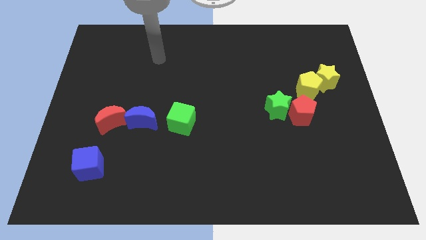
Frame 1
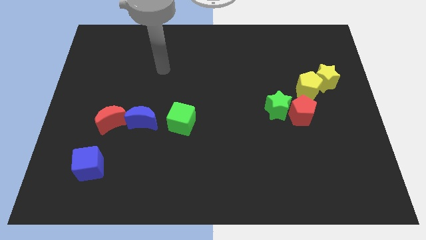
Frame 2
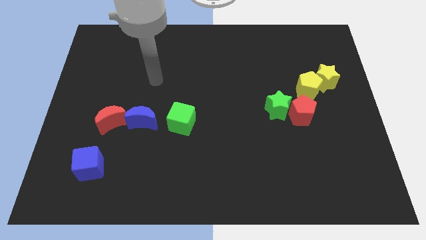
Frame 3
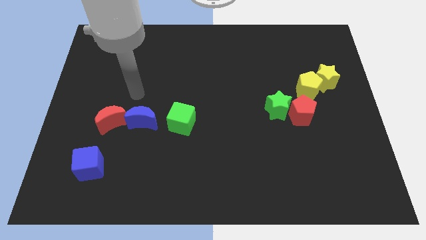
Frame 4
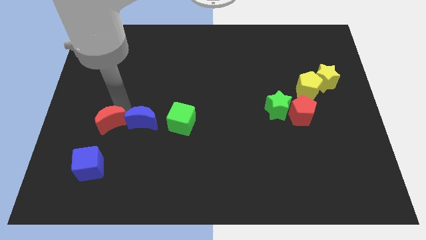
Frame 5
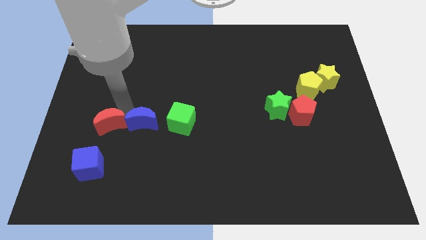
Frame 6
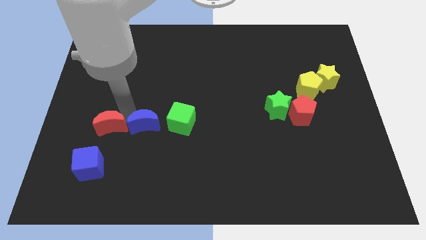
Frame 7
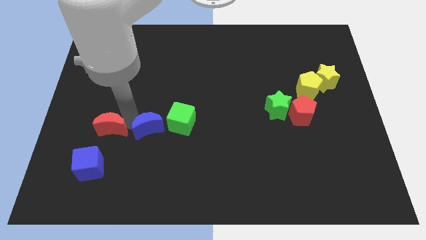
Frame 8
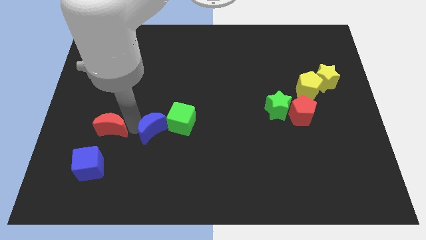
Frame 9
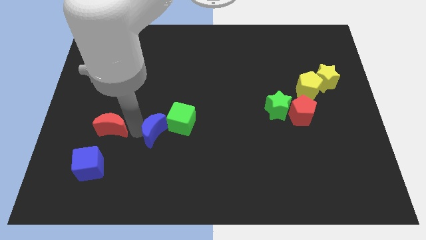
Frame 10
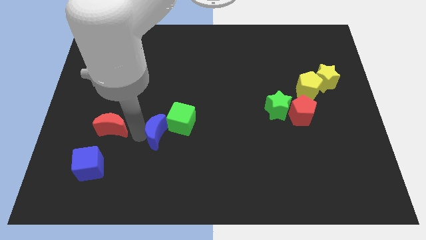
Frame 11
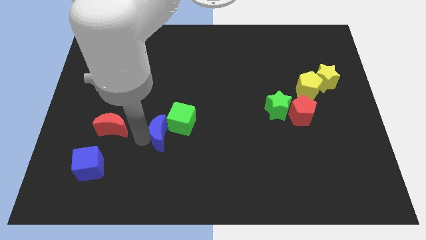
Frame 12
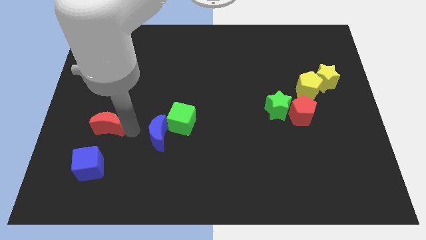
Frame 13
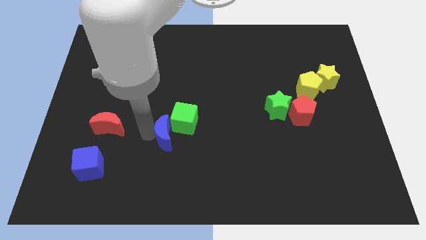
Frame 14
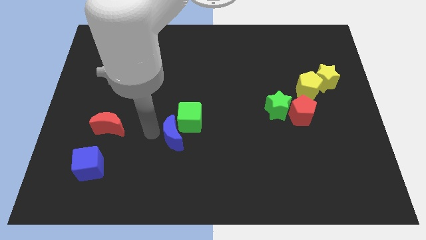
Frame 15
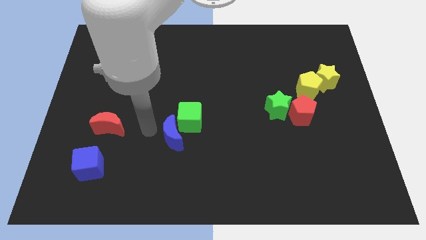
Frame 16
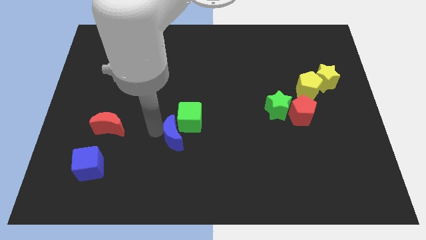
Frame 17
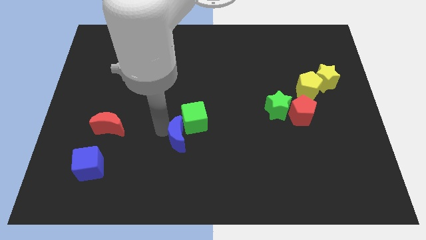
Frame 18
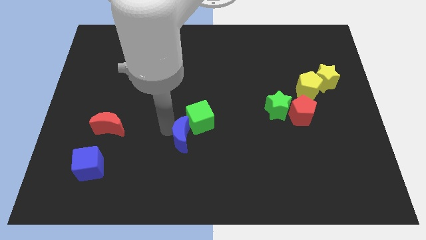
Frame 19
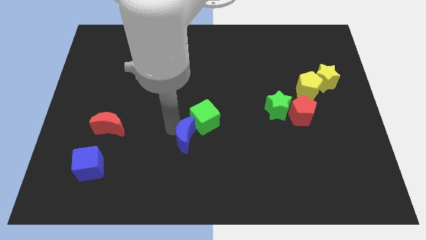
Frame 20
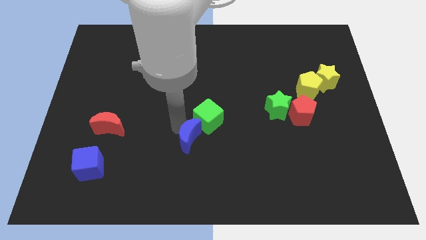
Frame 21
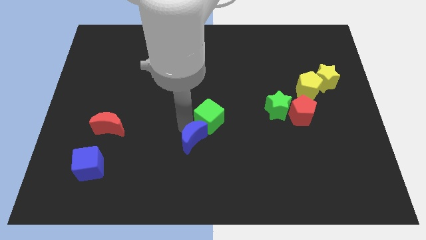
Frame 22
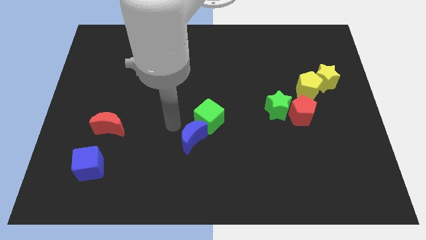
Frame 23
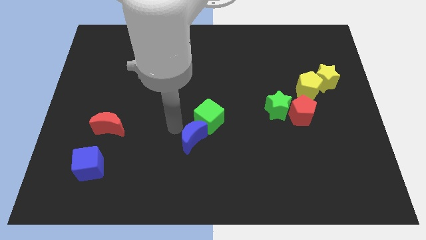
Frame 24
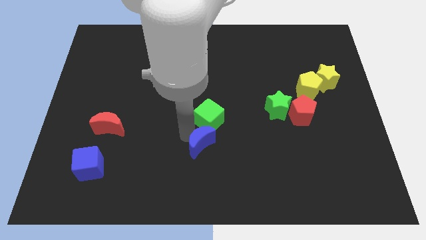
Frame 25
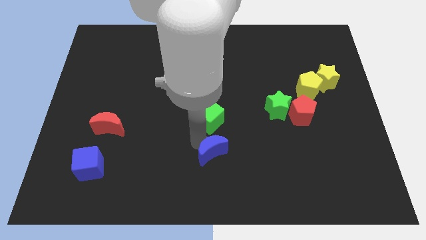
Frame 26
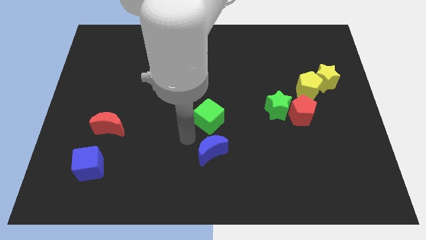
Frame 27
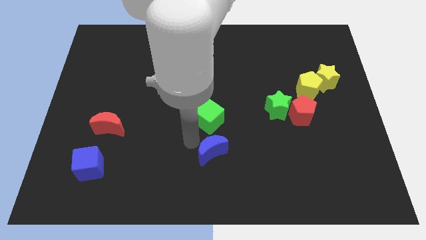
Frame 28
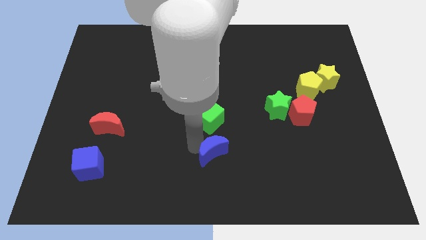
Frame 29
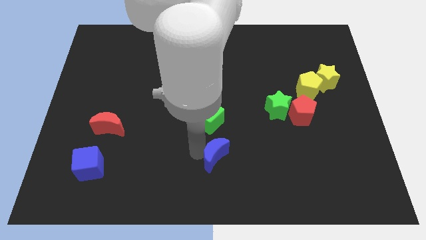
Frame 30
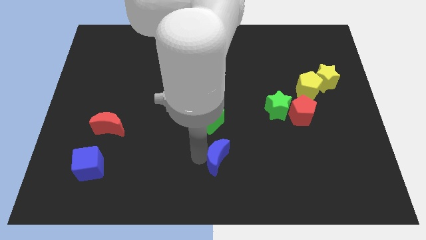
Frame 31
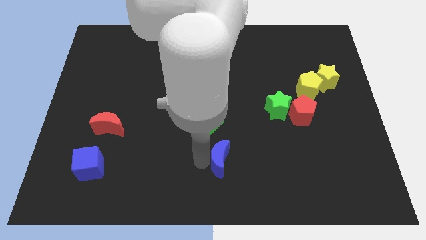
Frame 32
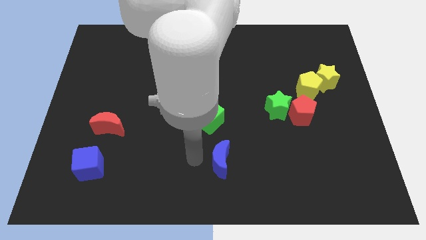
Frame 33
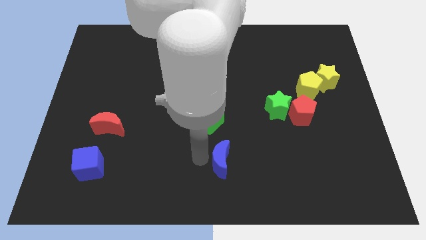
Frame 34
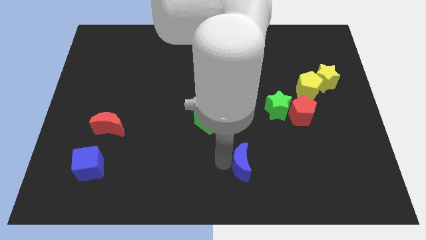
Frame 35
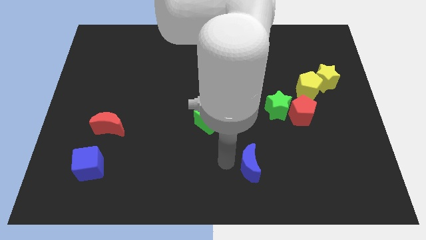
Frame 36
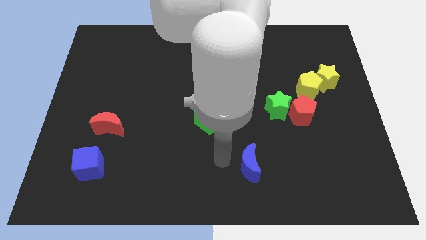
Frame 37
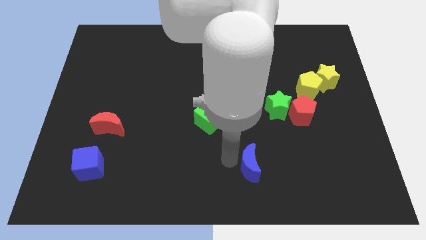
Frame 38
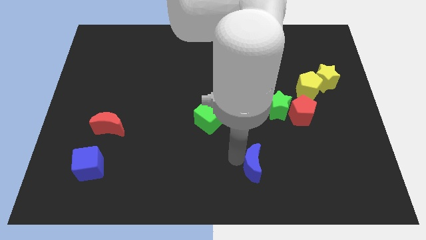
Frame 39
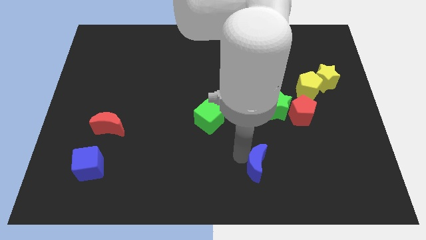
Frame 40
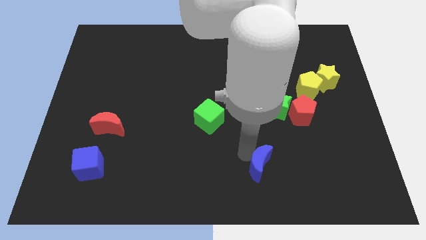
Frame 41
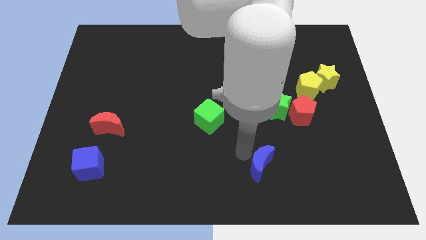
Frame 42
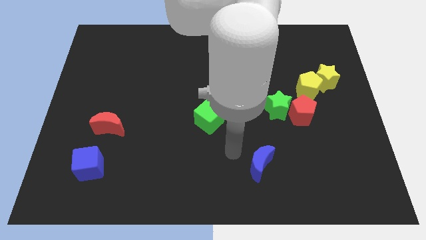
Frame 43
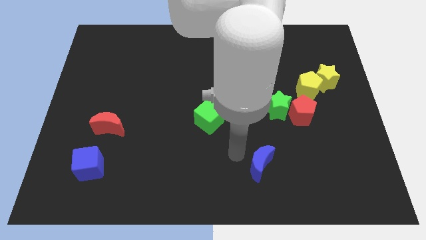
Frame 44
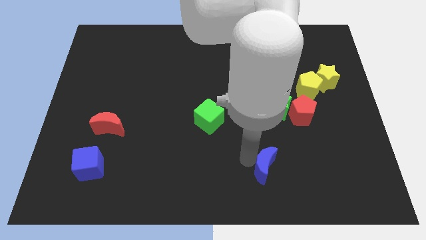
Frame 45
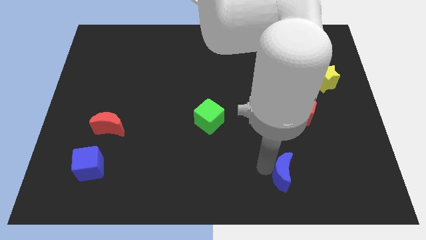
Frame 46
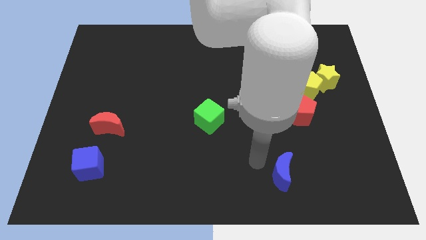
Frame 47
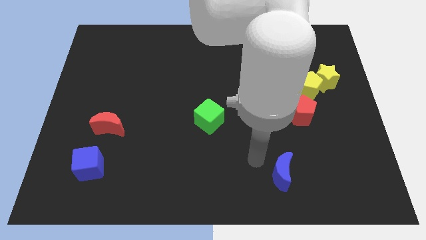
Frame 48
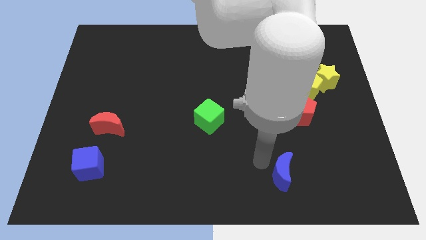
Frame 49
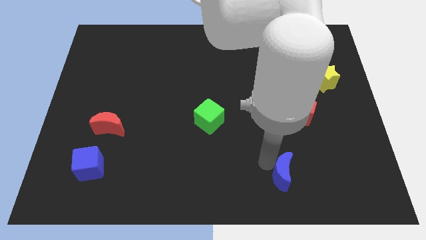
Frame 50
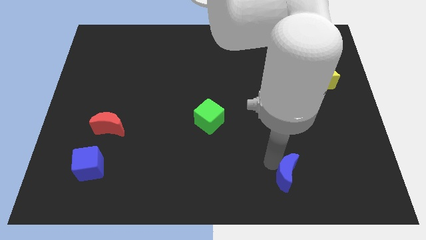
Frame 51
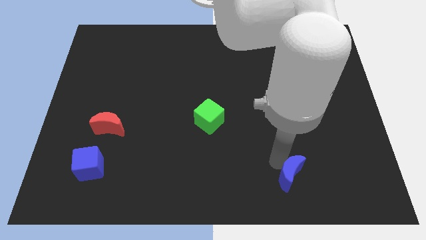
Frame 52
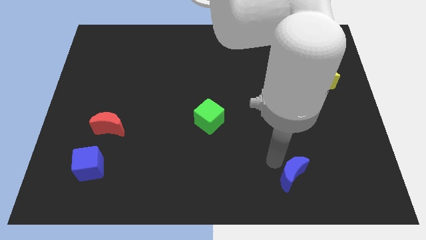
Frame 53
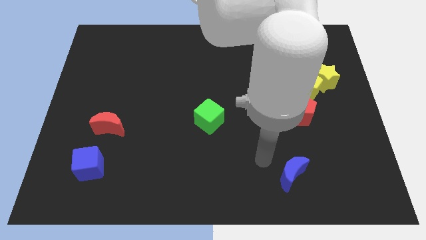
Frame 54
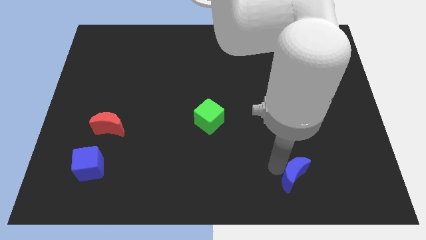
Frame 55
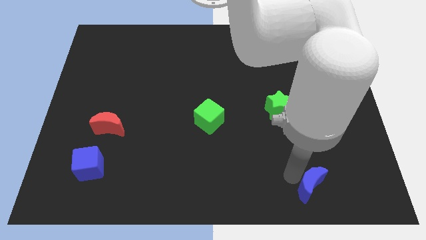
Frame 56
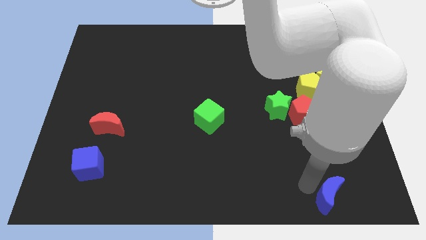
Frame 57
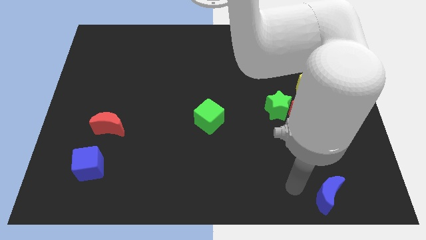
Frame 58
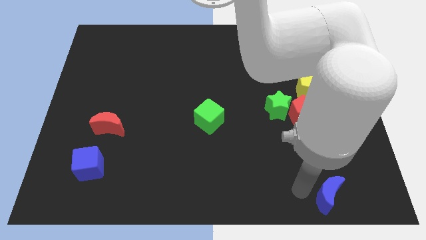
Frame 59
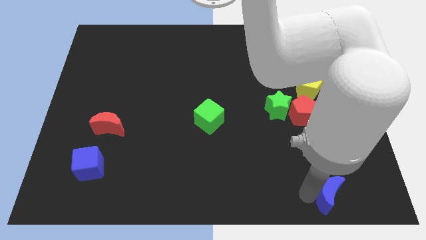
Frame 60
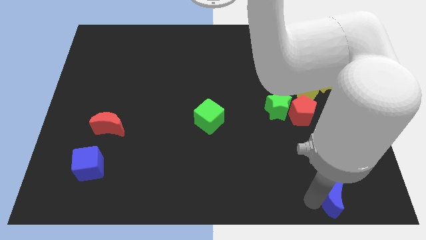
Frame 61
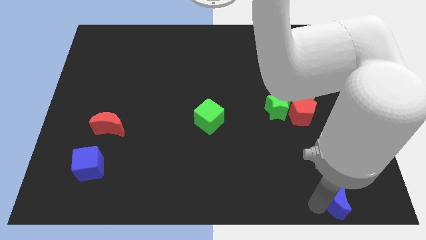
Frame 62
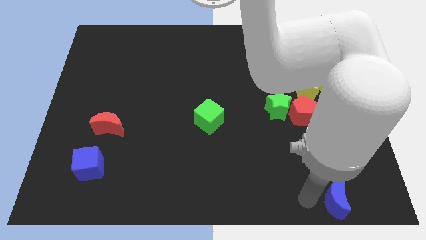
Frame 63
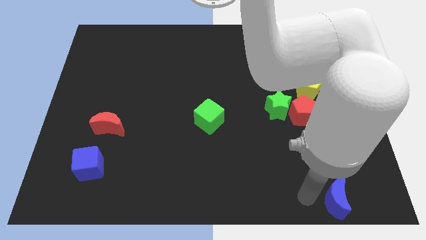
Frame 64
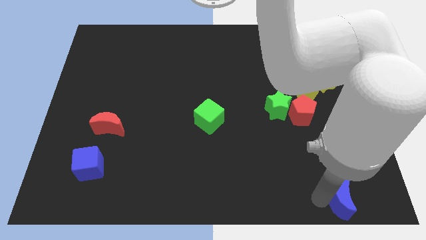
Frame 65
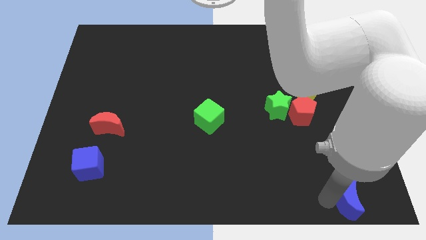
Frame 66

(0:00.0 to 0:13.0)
push the blue moon to the bottom right corner
